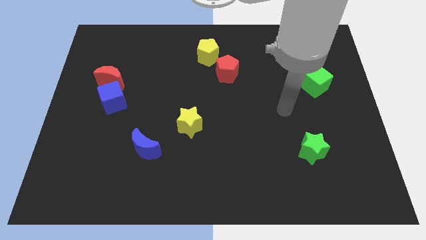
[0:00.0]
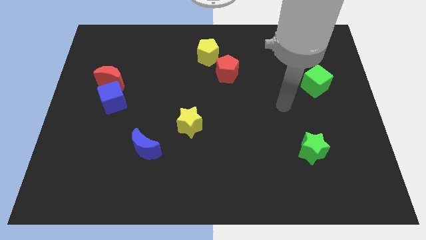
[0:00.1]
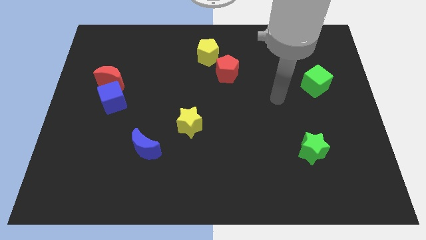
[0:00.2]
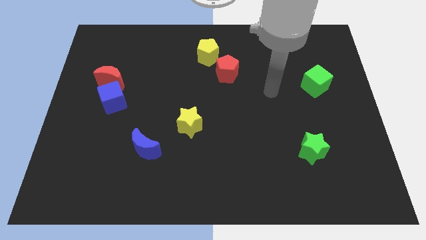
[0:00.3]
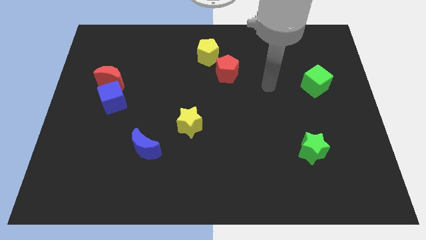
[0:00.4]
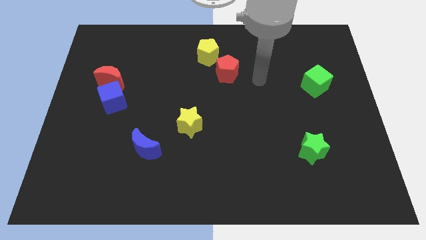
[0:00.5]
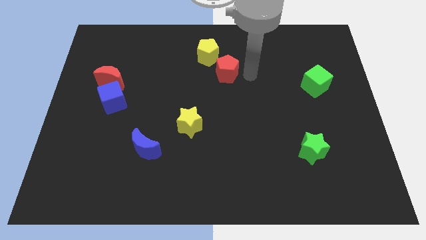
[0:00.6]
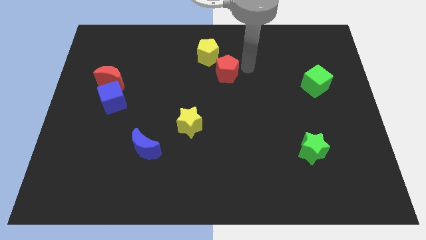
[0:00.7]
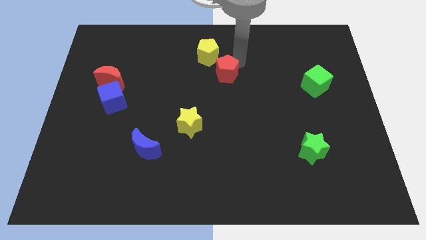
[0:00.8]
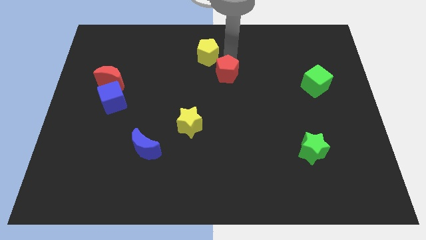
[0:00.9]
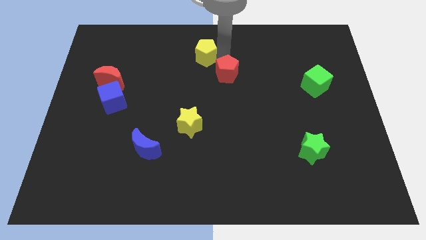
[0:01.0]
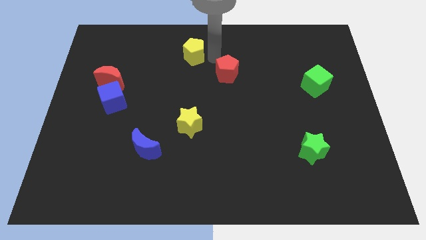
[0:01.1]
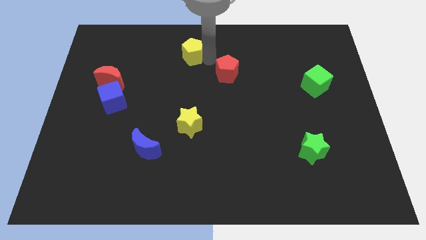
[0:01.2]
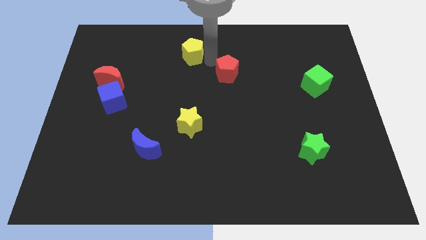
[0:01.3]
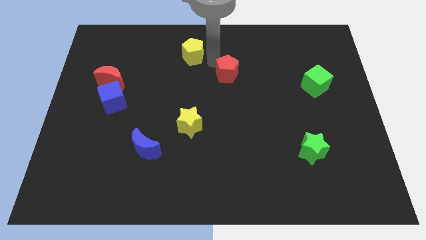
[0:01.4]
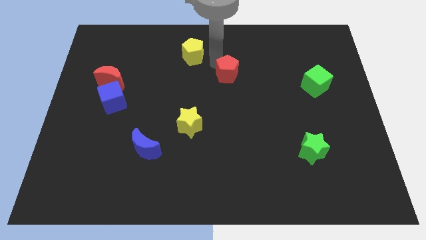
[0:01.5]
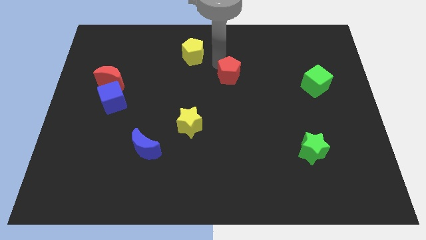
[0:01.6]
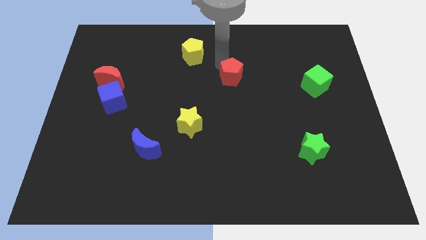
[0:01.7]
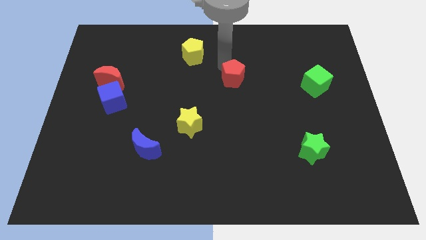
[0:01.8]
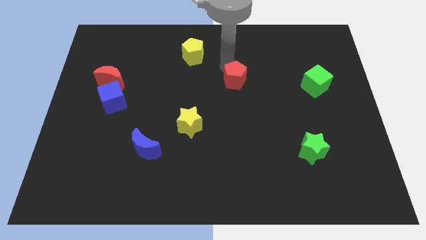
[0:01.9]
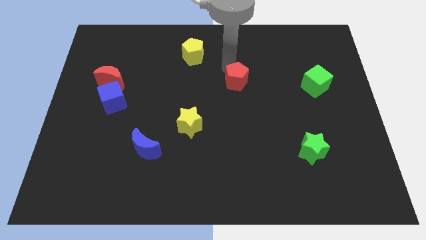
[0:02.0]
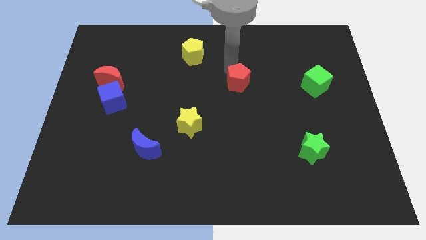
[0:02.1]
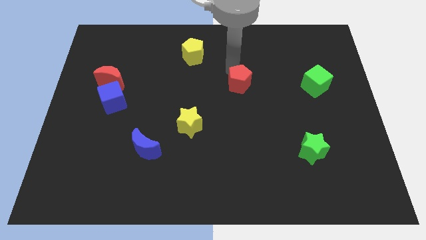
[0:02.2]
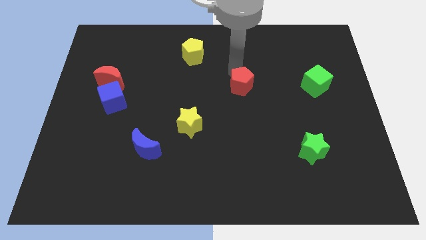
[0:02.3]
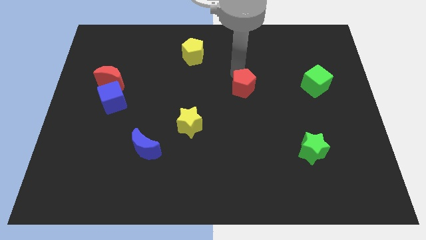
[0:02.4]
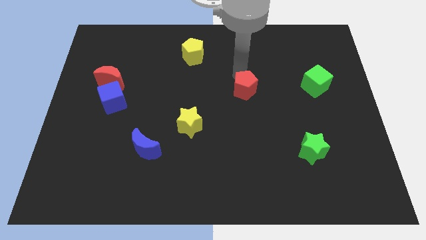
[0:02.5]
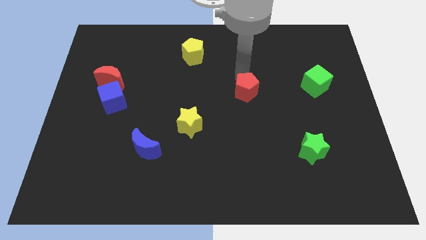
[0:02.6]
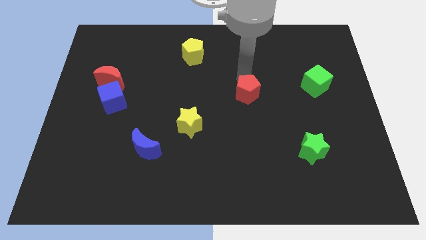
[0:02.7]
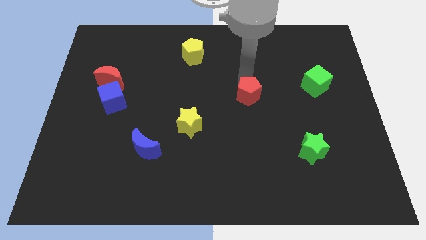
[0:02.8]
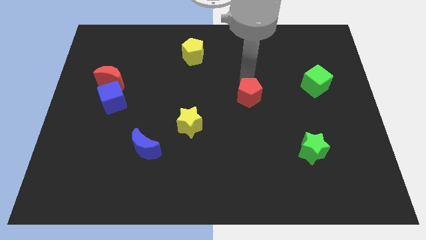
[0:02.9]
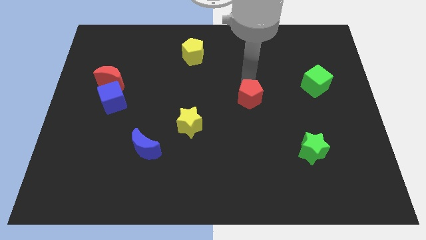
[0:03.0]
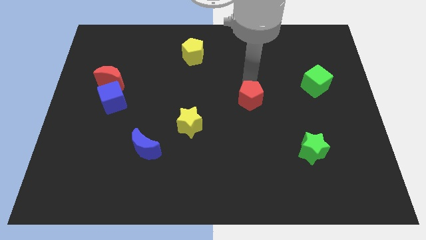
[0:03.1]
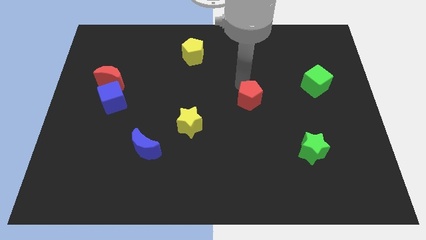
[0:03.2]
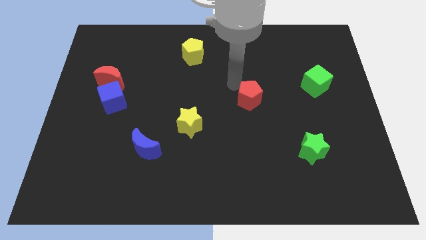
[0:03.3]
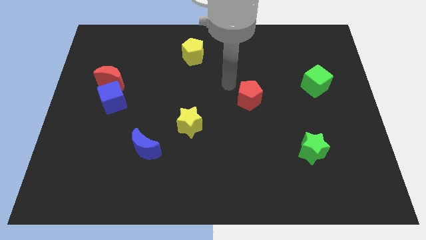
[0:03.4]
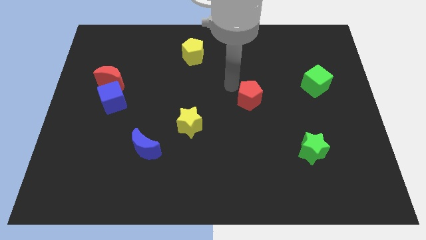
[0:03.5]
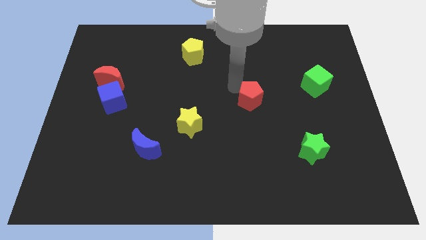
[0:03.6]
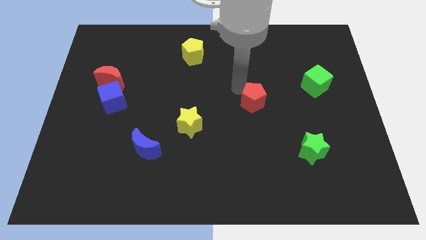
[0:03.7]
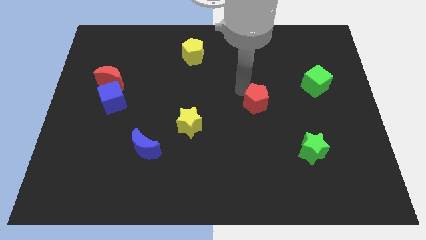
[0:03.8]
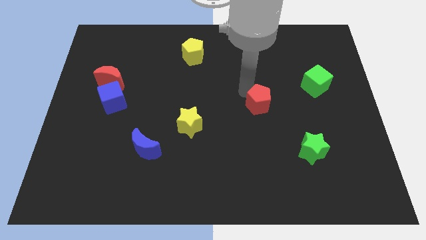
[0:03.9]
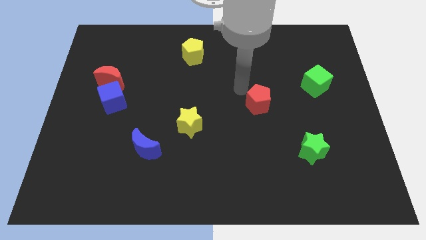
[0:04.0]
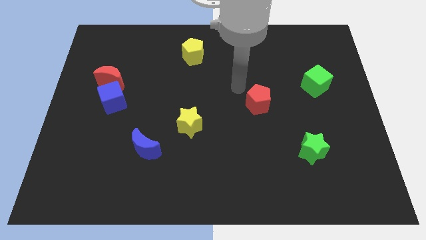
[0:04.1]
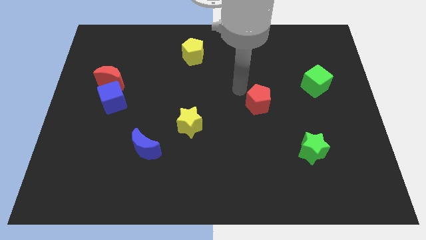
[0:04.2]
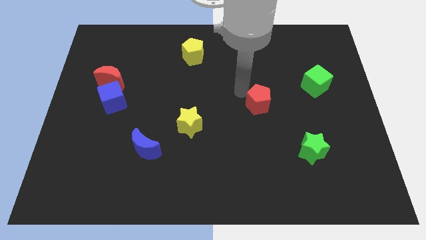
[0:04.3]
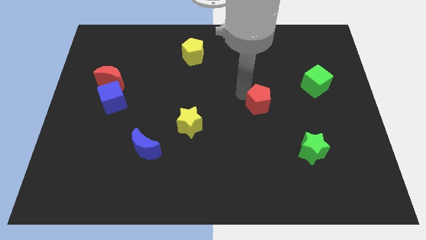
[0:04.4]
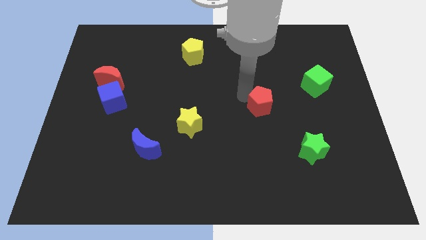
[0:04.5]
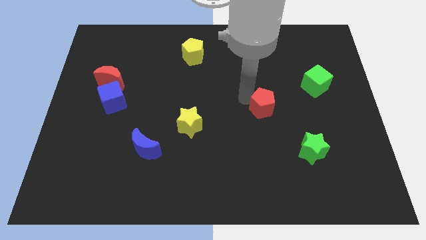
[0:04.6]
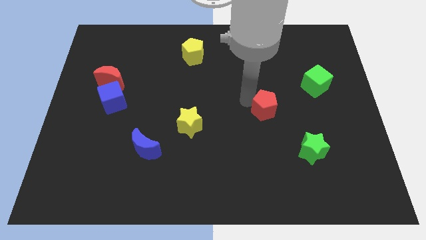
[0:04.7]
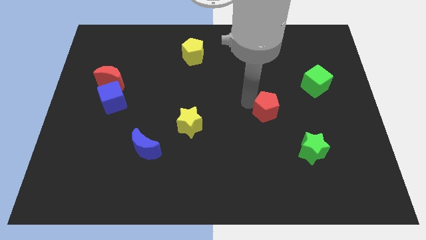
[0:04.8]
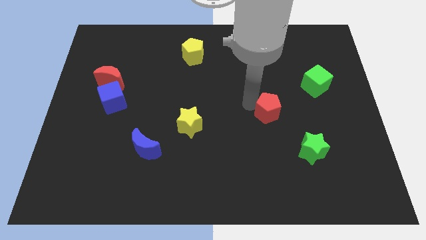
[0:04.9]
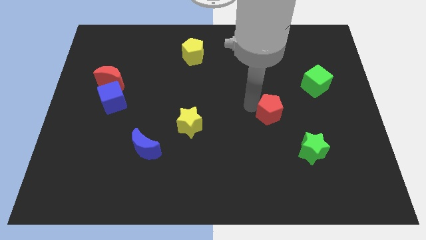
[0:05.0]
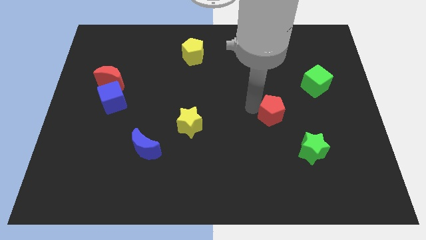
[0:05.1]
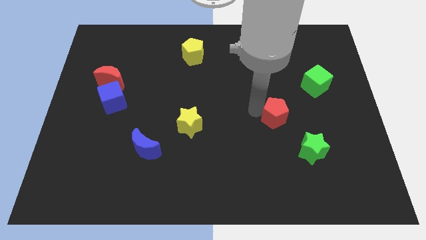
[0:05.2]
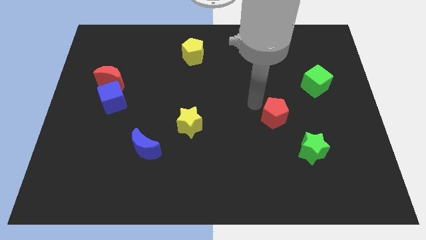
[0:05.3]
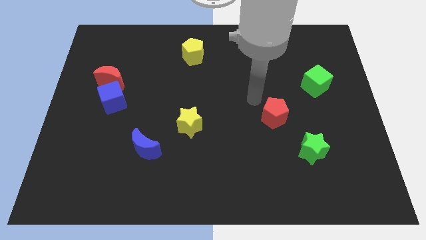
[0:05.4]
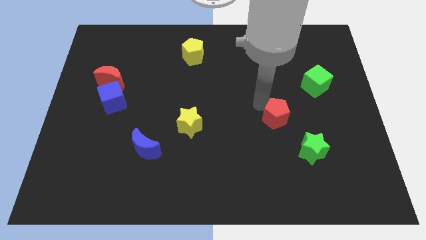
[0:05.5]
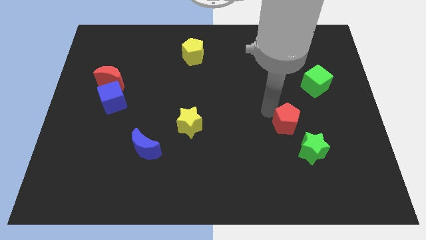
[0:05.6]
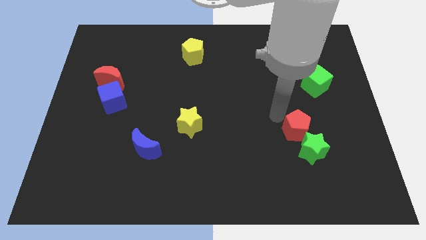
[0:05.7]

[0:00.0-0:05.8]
move the red pentagon towards the green star

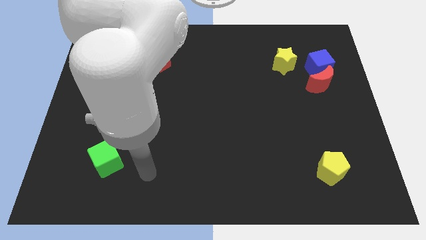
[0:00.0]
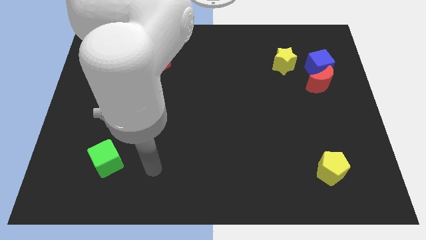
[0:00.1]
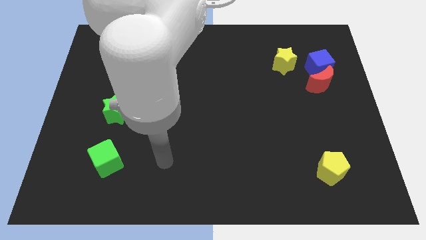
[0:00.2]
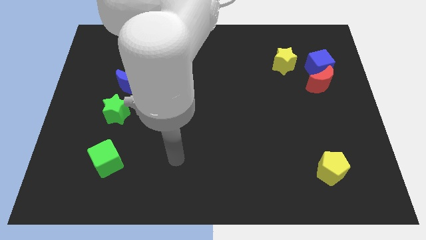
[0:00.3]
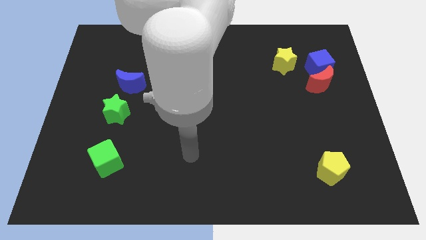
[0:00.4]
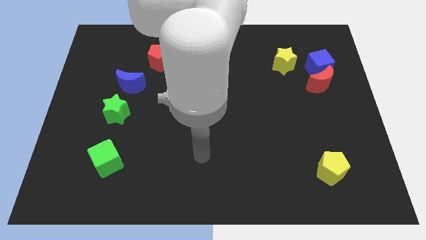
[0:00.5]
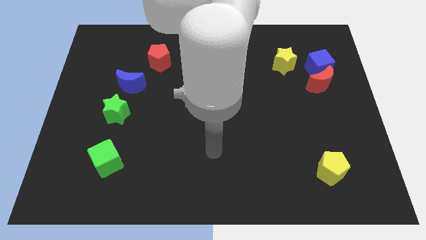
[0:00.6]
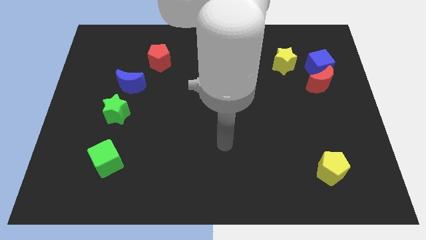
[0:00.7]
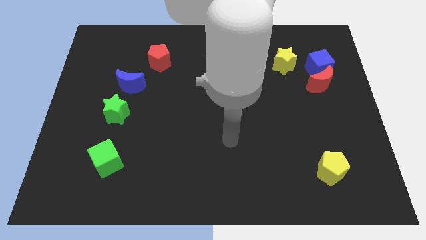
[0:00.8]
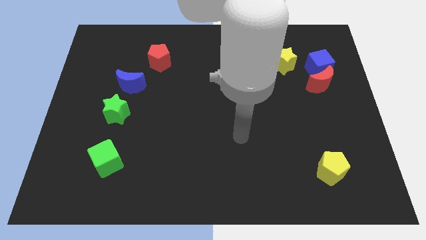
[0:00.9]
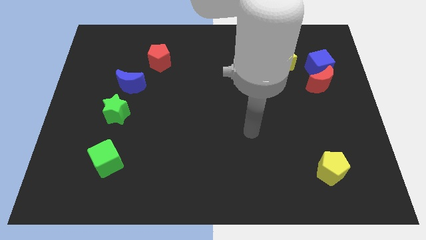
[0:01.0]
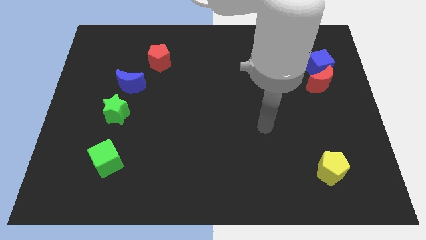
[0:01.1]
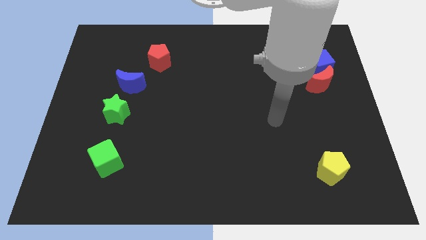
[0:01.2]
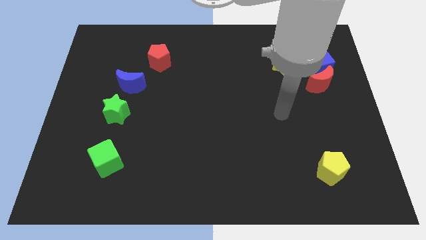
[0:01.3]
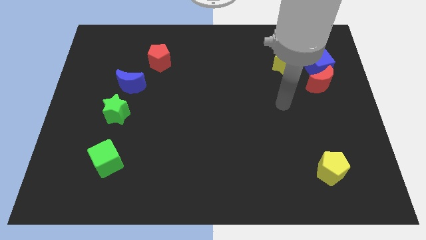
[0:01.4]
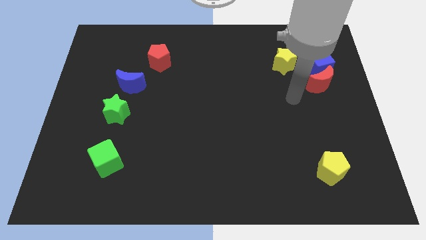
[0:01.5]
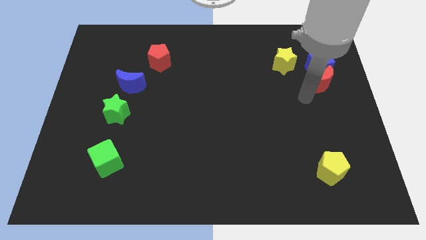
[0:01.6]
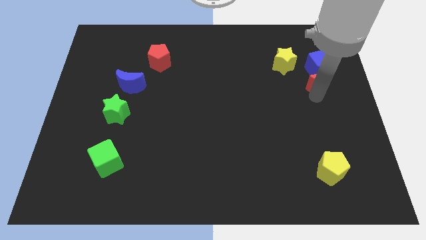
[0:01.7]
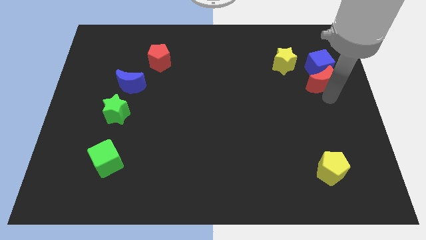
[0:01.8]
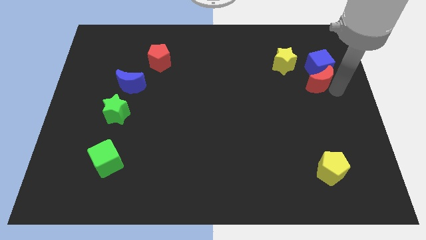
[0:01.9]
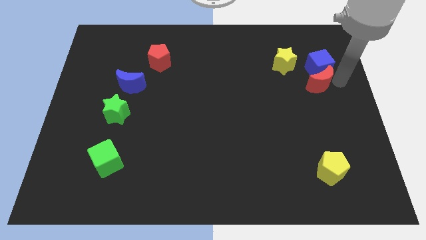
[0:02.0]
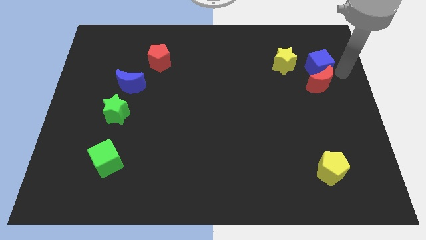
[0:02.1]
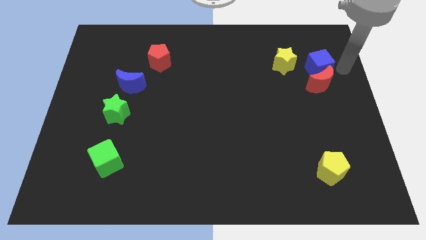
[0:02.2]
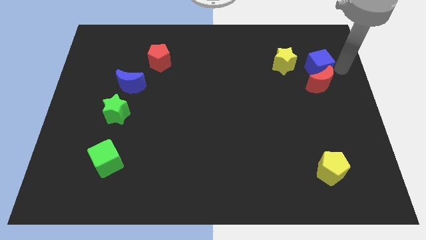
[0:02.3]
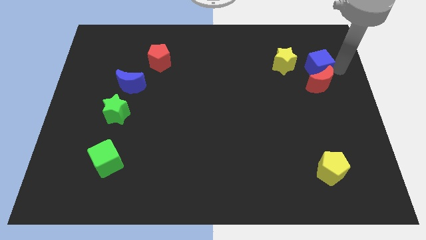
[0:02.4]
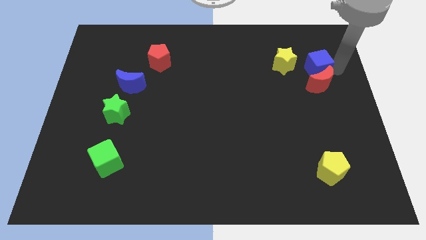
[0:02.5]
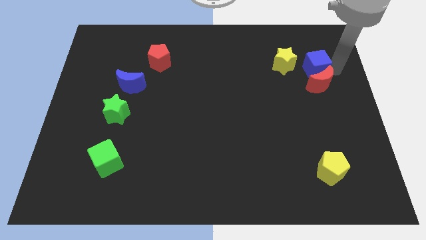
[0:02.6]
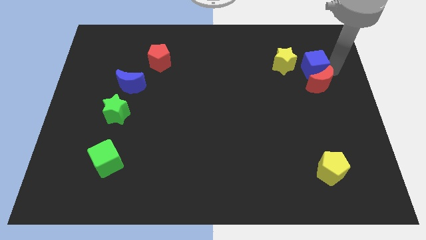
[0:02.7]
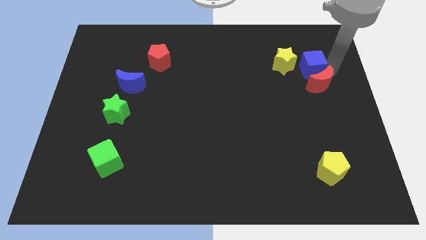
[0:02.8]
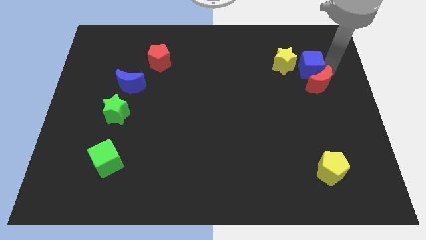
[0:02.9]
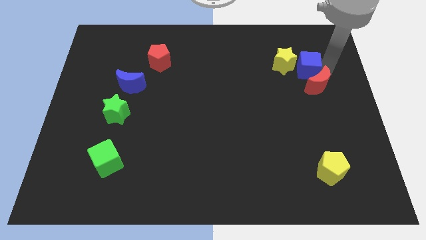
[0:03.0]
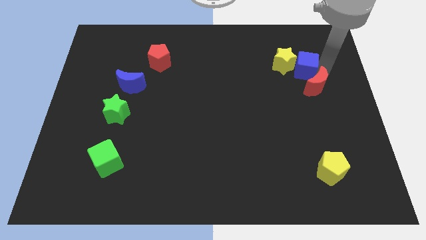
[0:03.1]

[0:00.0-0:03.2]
slide the blue cube to the yellow star
